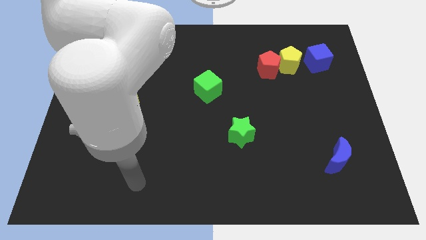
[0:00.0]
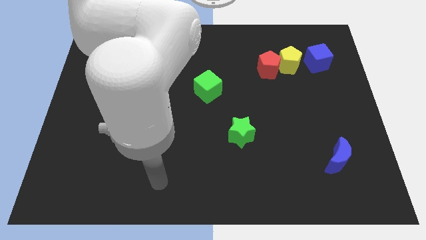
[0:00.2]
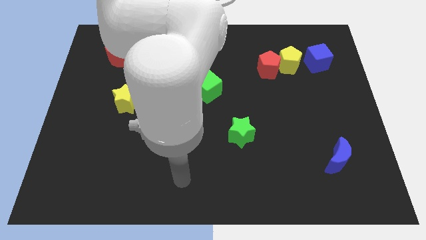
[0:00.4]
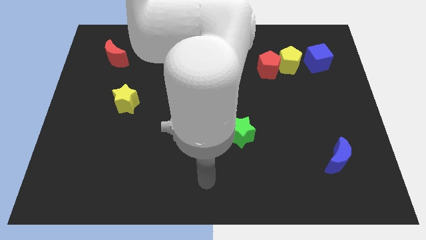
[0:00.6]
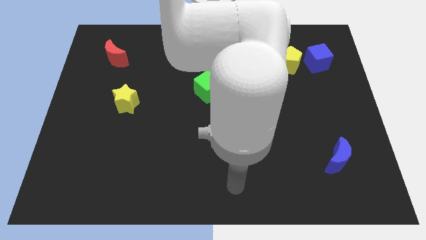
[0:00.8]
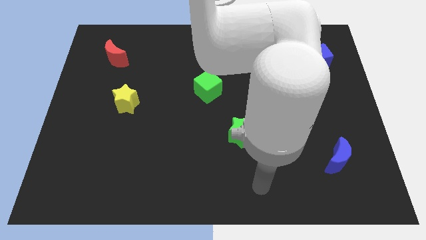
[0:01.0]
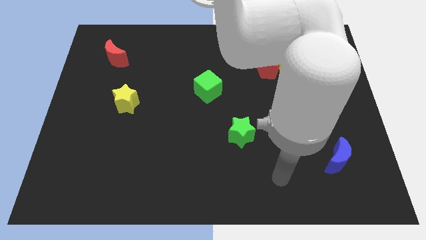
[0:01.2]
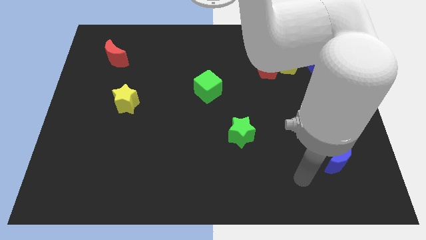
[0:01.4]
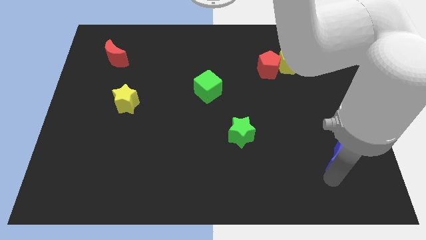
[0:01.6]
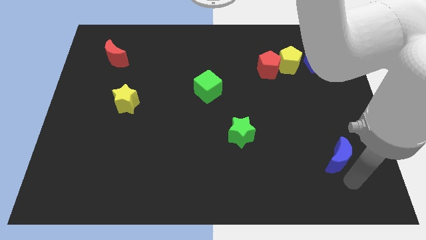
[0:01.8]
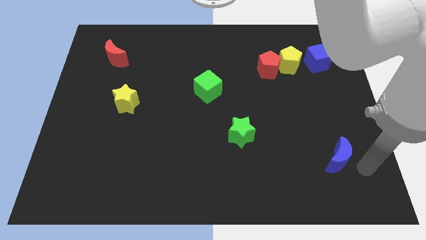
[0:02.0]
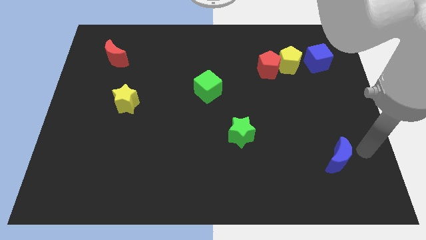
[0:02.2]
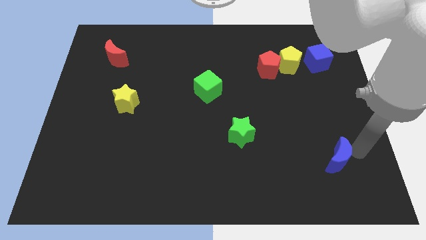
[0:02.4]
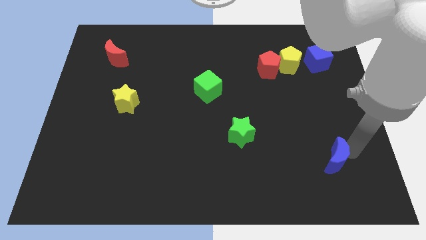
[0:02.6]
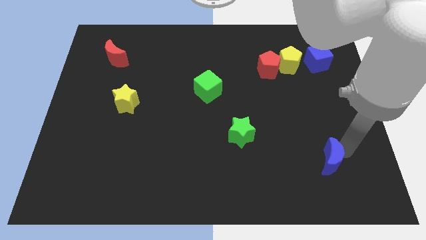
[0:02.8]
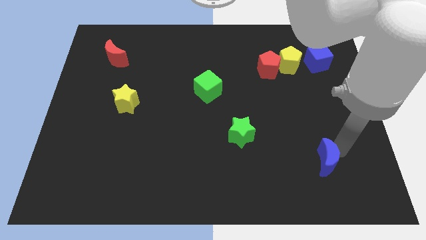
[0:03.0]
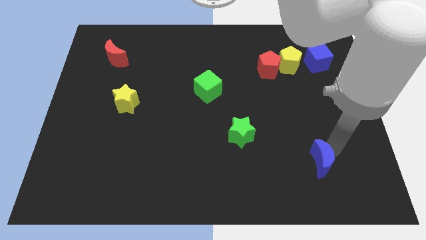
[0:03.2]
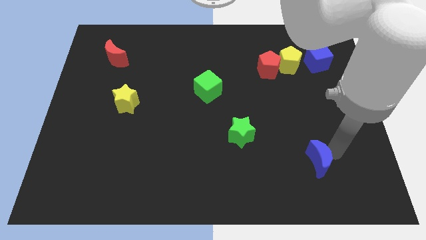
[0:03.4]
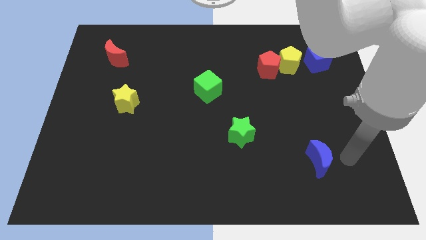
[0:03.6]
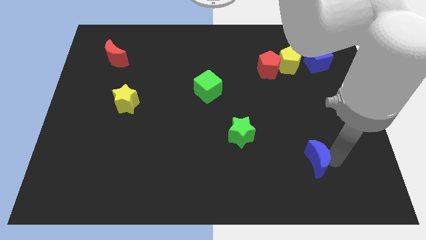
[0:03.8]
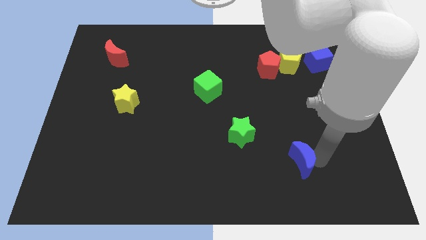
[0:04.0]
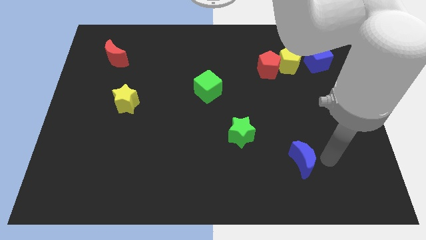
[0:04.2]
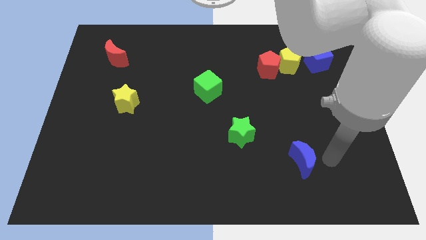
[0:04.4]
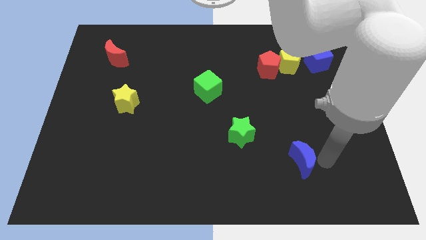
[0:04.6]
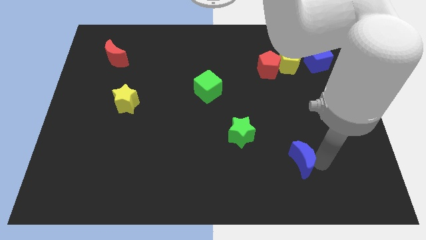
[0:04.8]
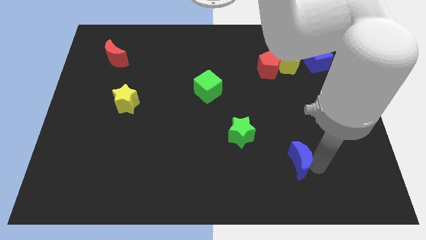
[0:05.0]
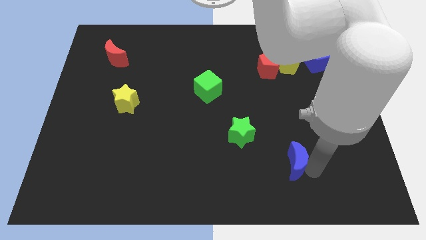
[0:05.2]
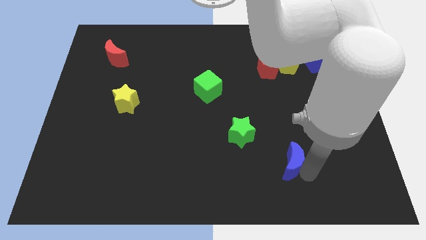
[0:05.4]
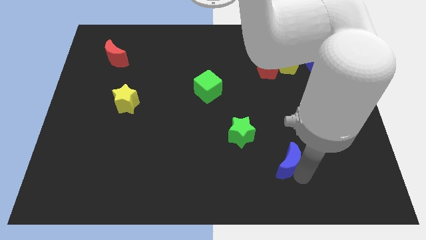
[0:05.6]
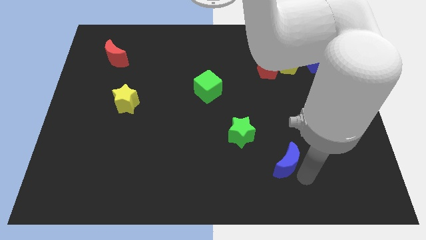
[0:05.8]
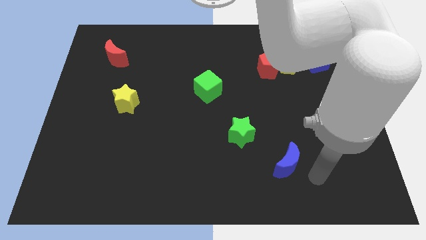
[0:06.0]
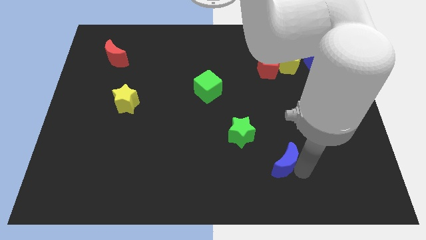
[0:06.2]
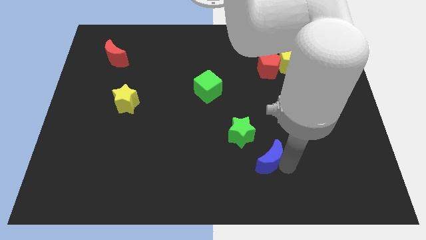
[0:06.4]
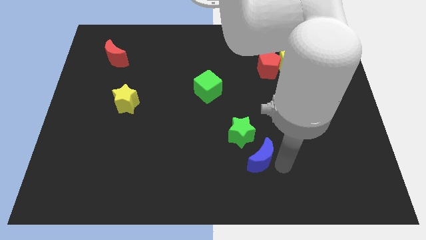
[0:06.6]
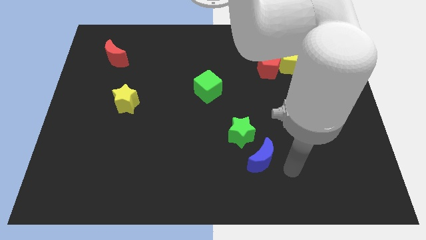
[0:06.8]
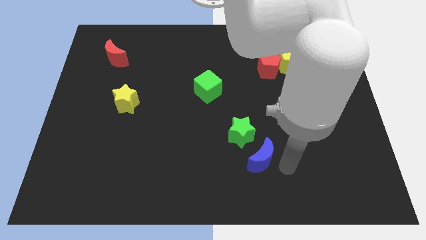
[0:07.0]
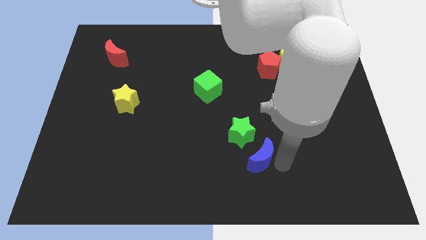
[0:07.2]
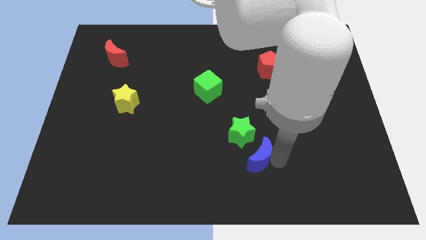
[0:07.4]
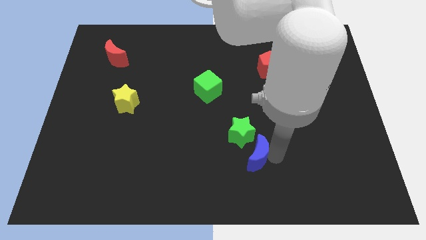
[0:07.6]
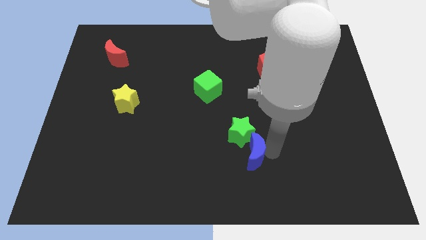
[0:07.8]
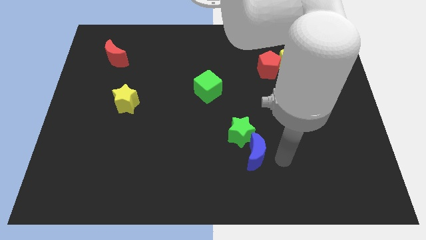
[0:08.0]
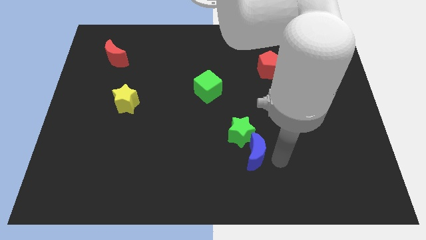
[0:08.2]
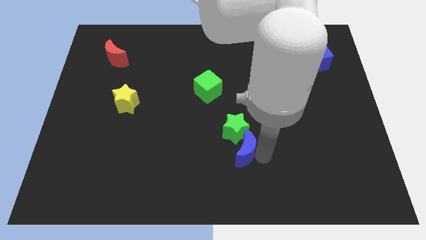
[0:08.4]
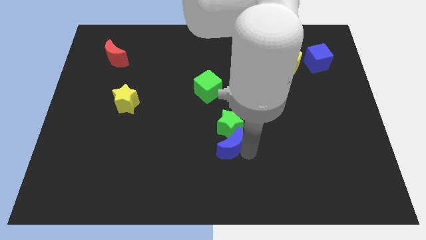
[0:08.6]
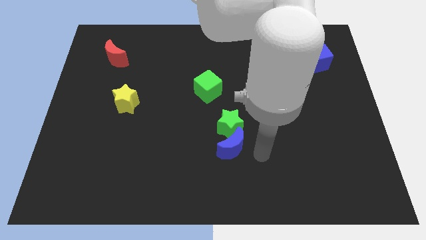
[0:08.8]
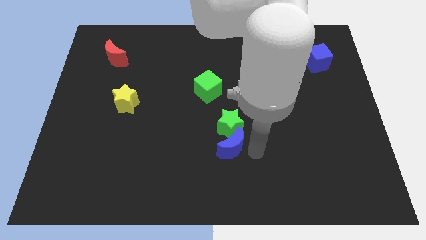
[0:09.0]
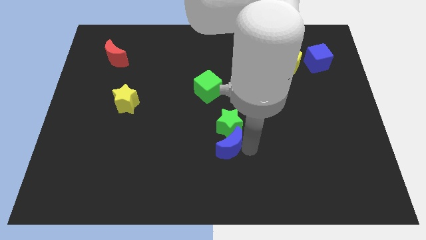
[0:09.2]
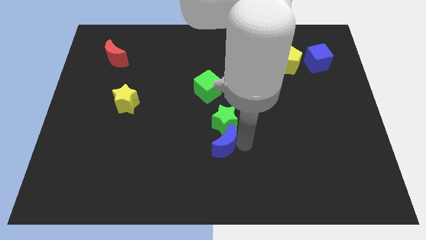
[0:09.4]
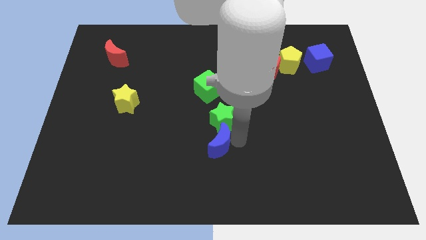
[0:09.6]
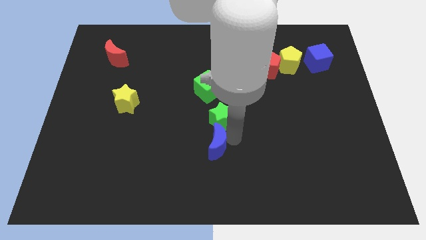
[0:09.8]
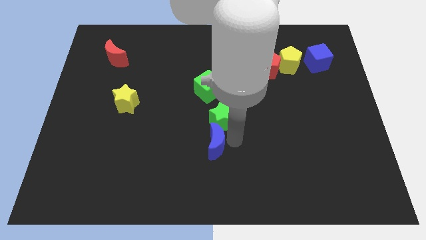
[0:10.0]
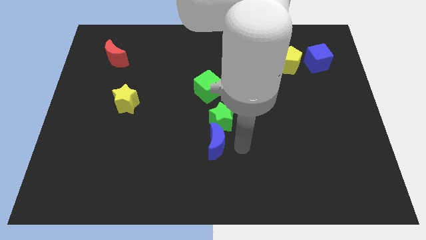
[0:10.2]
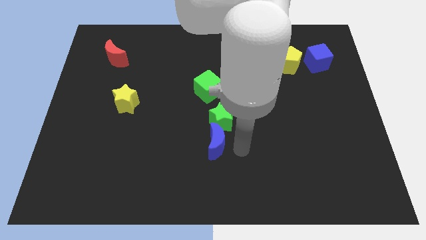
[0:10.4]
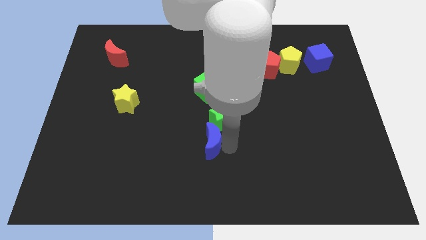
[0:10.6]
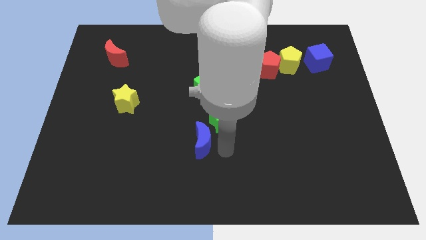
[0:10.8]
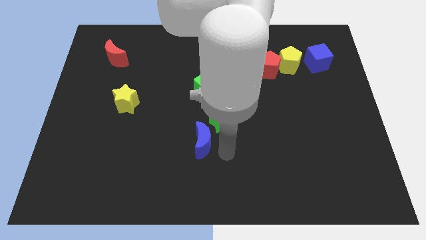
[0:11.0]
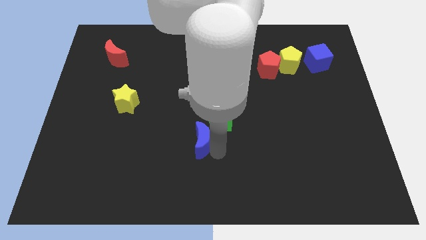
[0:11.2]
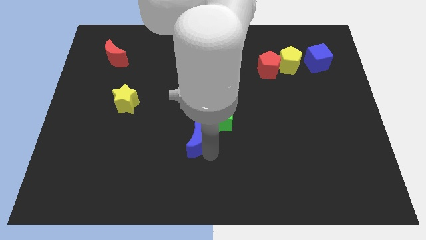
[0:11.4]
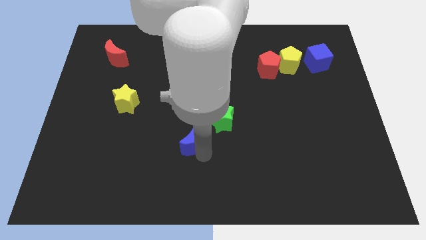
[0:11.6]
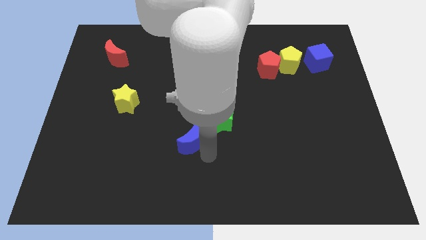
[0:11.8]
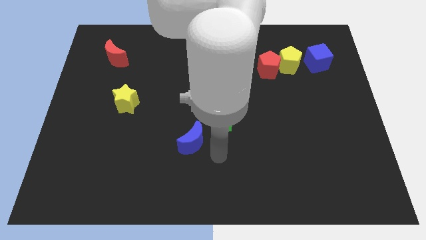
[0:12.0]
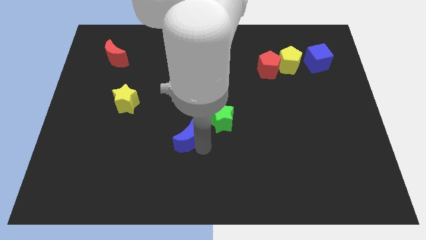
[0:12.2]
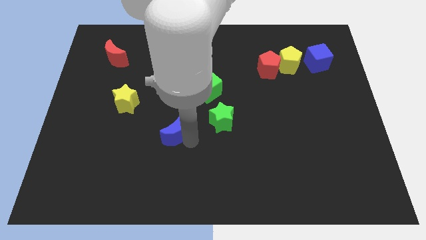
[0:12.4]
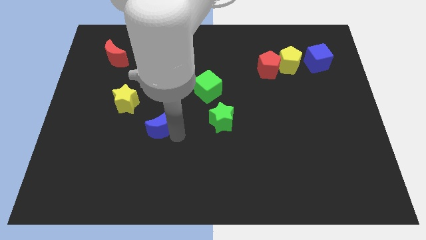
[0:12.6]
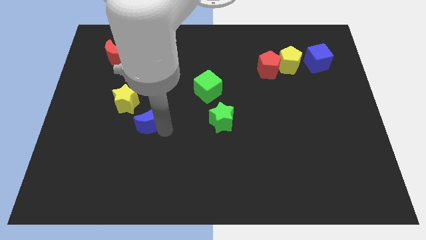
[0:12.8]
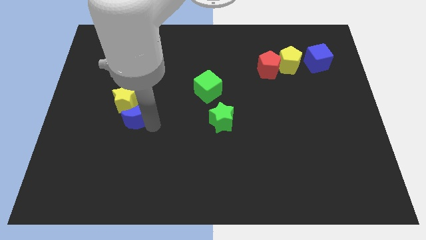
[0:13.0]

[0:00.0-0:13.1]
move the blue moon to the yellow star
